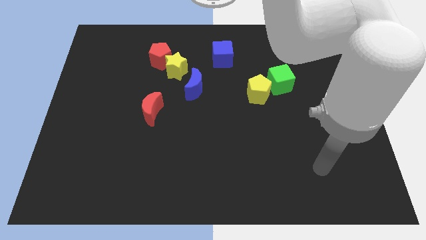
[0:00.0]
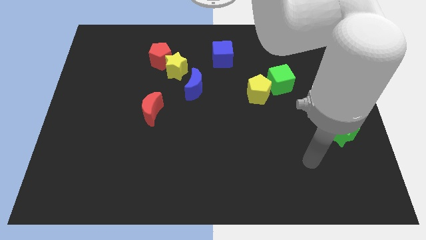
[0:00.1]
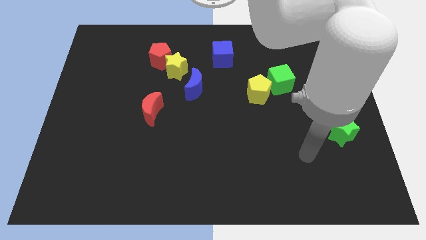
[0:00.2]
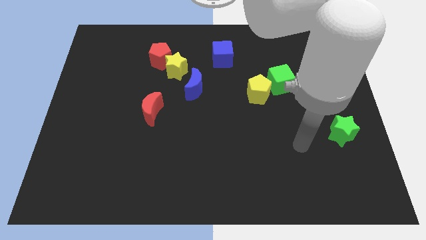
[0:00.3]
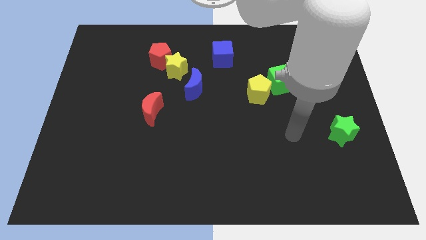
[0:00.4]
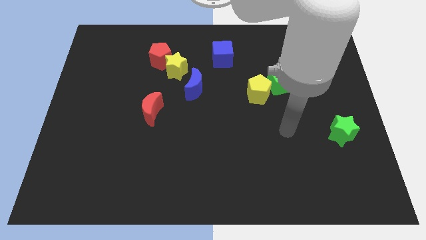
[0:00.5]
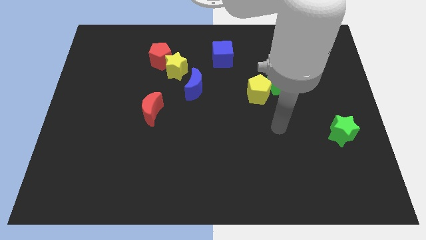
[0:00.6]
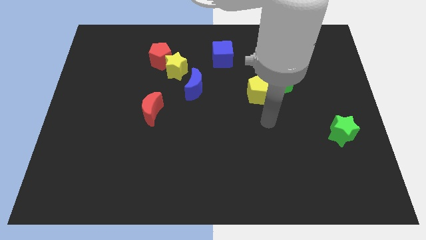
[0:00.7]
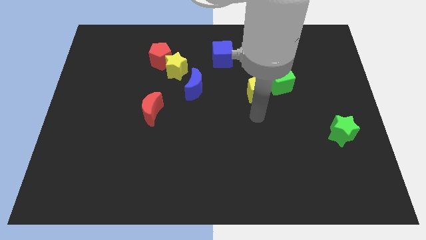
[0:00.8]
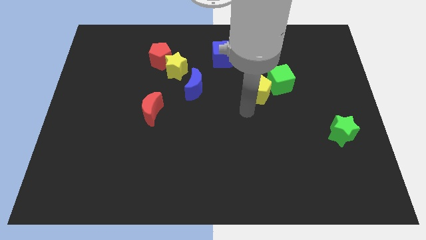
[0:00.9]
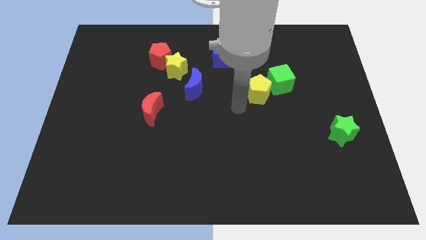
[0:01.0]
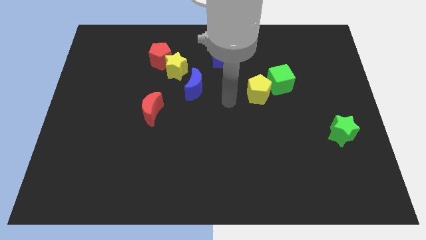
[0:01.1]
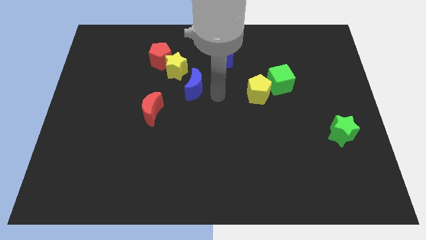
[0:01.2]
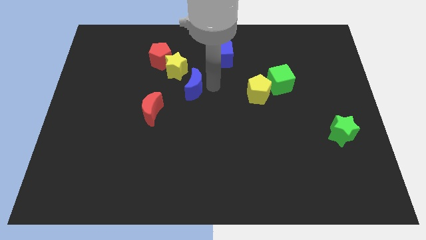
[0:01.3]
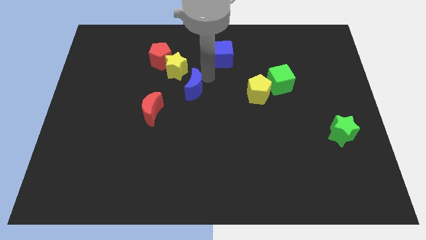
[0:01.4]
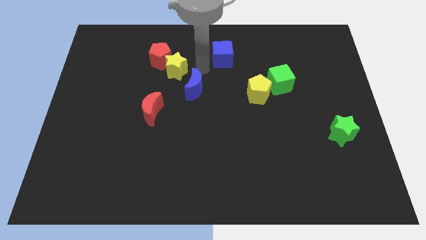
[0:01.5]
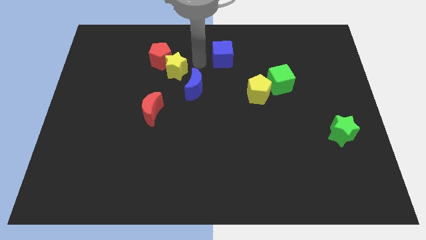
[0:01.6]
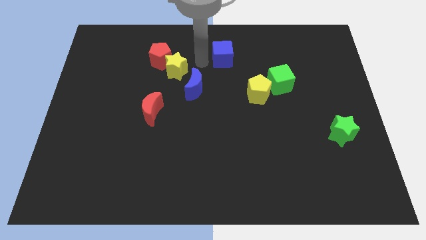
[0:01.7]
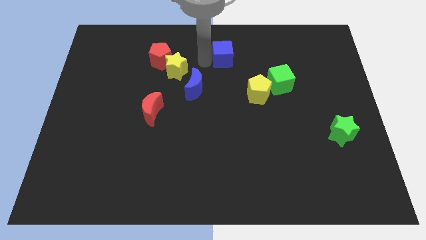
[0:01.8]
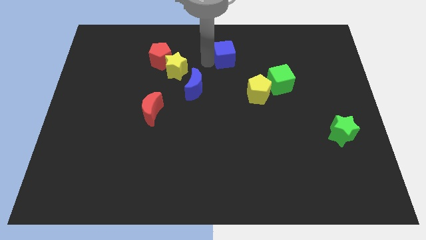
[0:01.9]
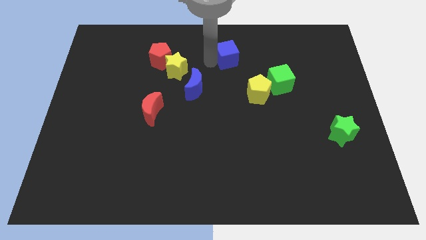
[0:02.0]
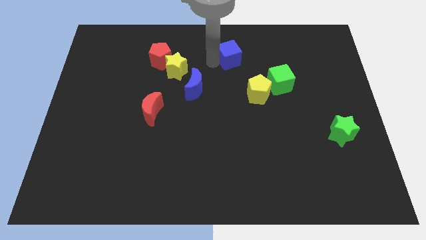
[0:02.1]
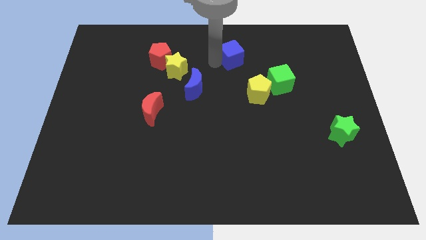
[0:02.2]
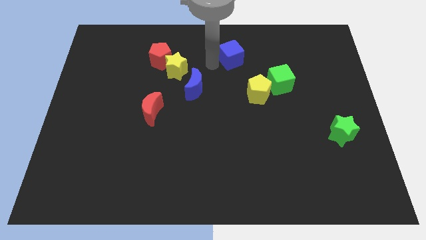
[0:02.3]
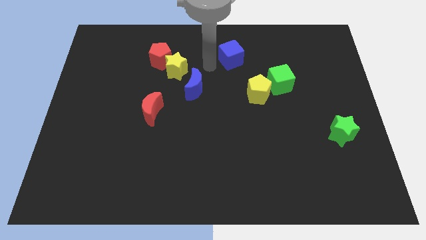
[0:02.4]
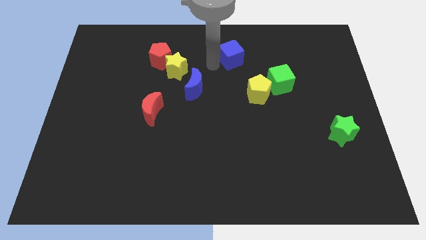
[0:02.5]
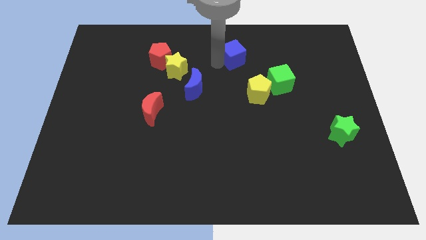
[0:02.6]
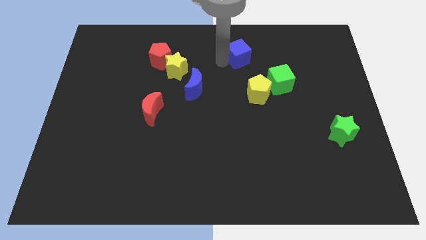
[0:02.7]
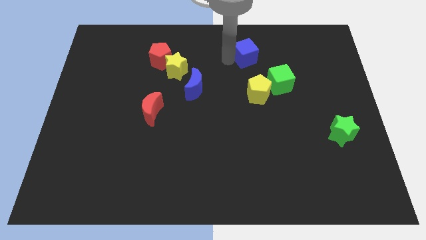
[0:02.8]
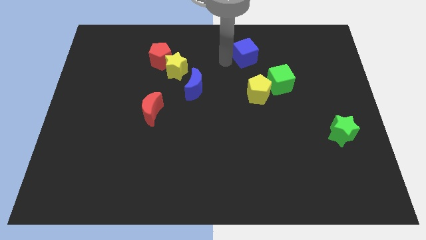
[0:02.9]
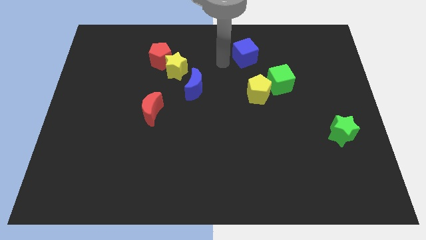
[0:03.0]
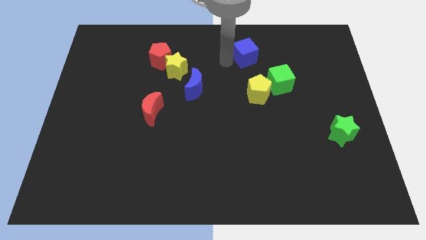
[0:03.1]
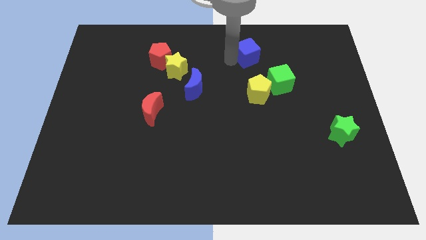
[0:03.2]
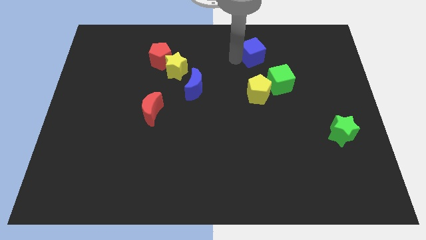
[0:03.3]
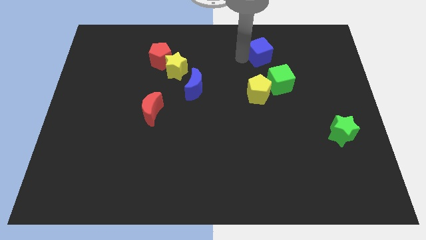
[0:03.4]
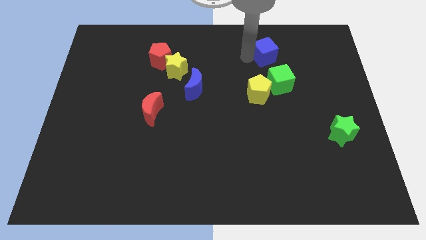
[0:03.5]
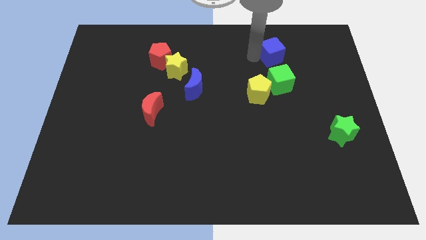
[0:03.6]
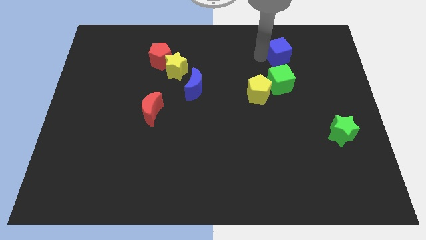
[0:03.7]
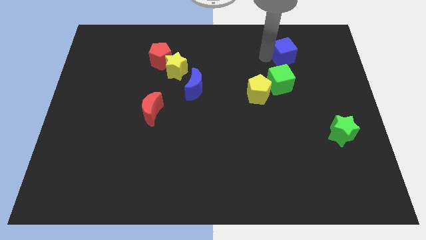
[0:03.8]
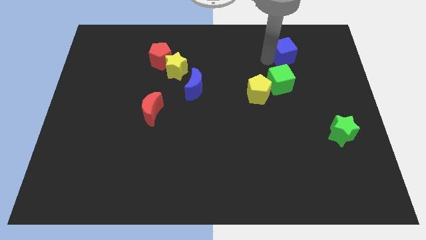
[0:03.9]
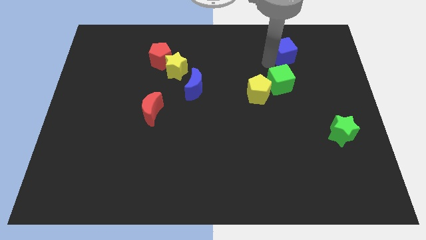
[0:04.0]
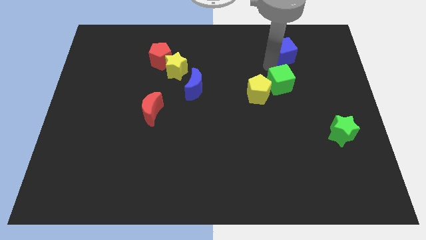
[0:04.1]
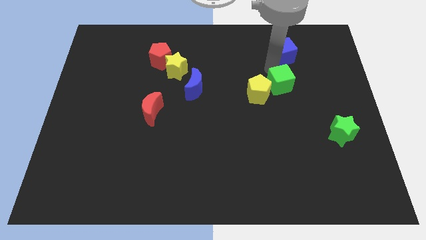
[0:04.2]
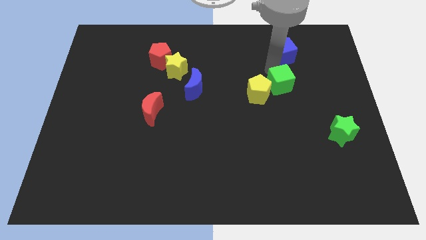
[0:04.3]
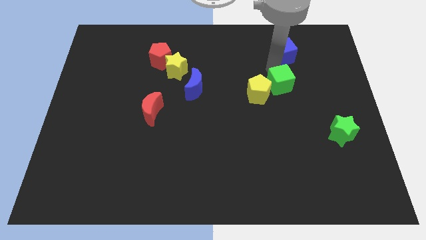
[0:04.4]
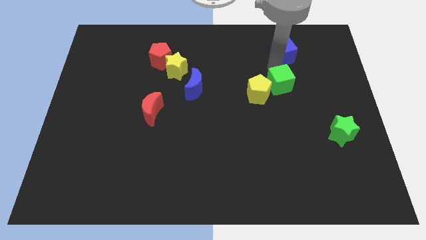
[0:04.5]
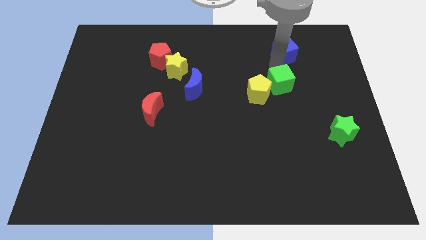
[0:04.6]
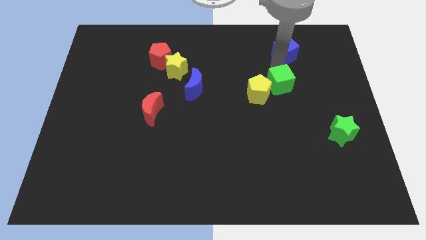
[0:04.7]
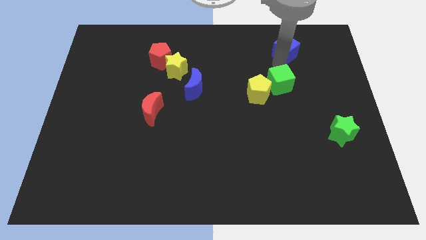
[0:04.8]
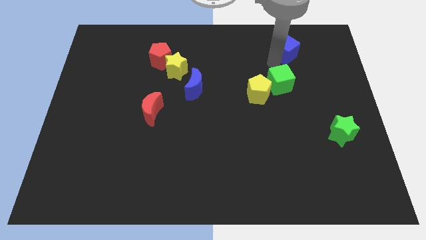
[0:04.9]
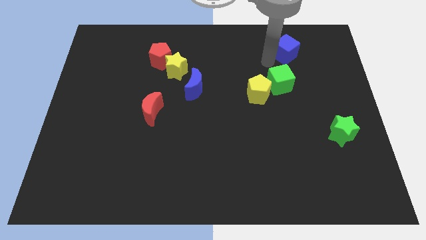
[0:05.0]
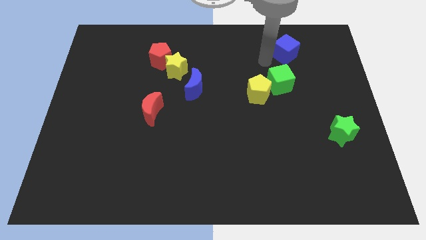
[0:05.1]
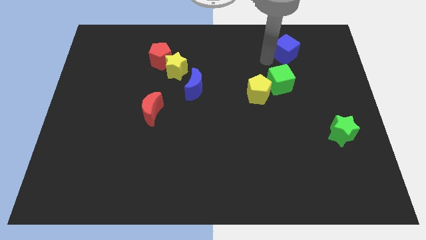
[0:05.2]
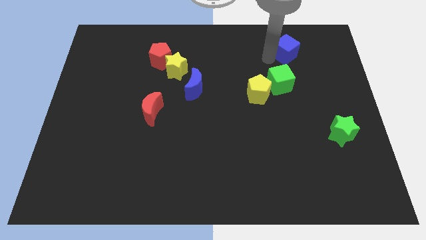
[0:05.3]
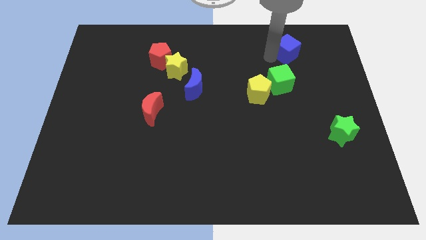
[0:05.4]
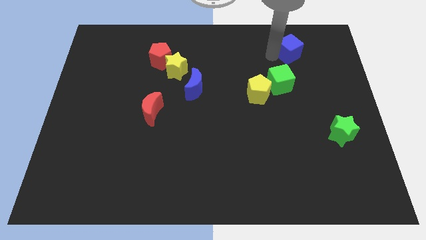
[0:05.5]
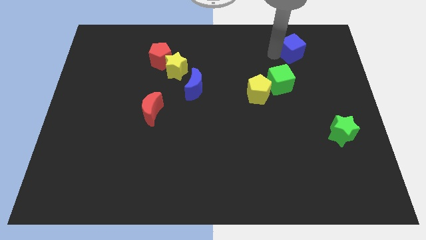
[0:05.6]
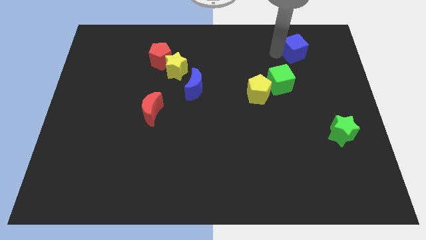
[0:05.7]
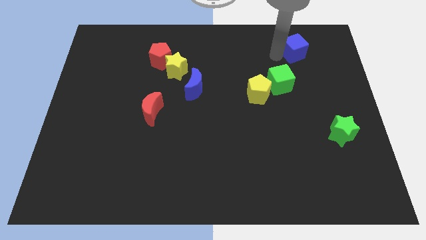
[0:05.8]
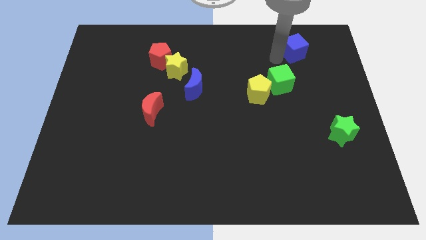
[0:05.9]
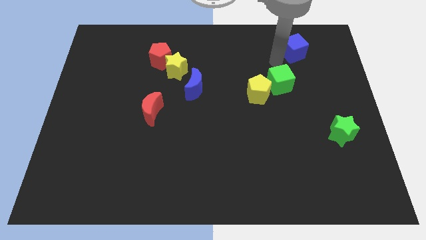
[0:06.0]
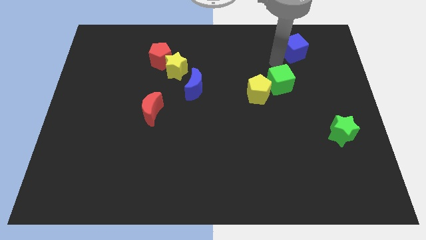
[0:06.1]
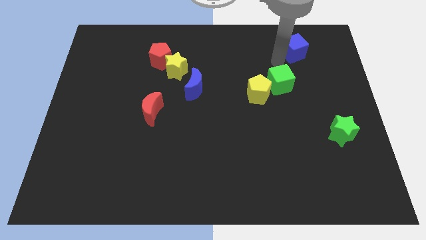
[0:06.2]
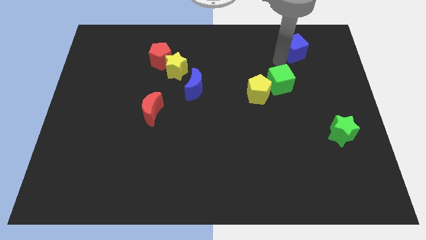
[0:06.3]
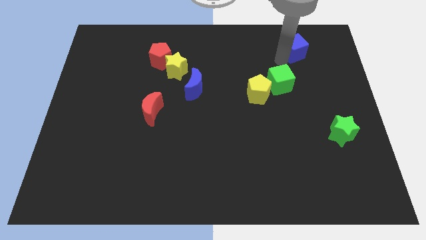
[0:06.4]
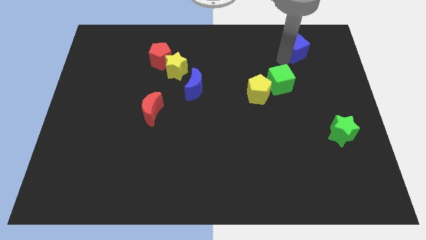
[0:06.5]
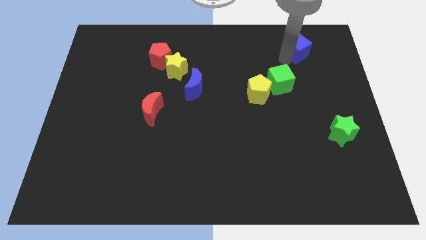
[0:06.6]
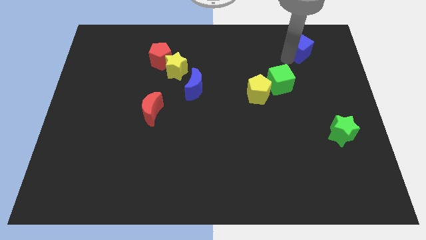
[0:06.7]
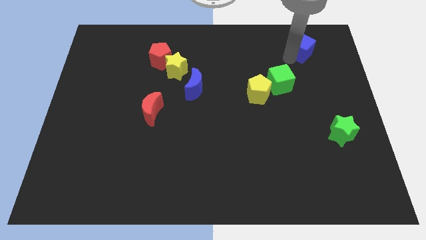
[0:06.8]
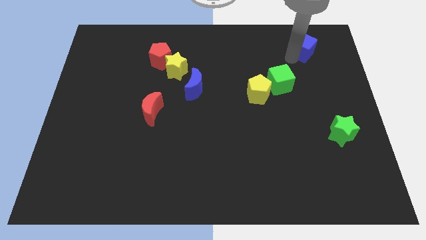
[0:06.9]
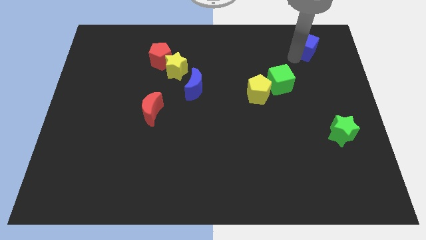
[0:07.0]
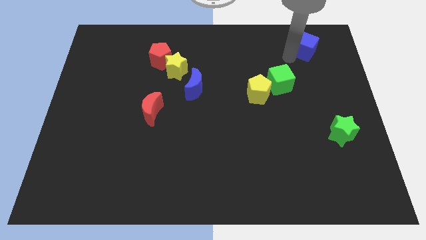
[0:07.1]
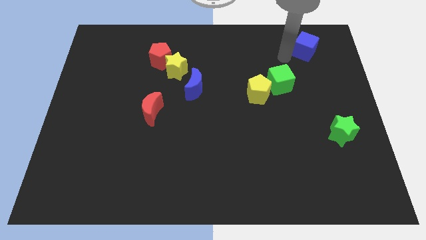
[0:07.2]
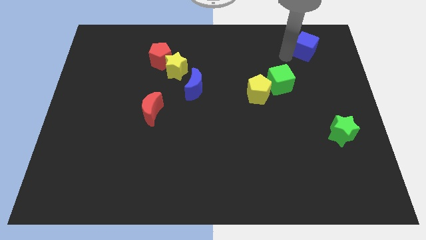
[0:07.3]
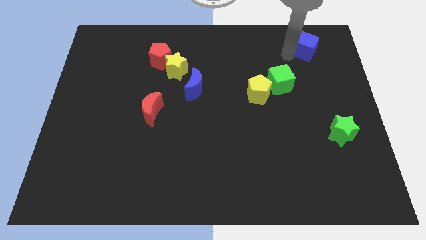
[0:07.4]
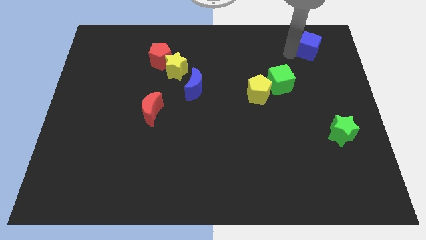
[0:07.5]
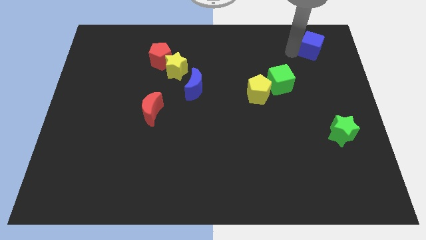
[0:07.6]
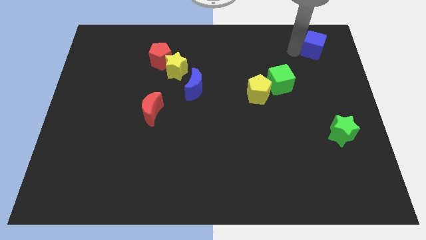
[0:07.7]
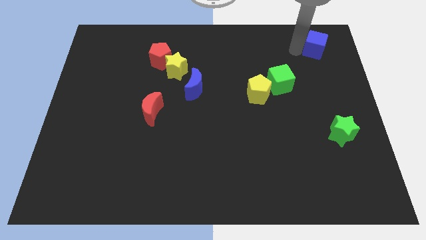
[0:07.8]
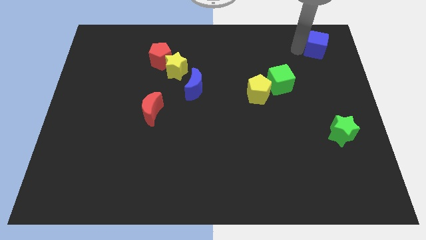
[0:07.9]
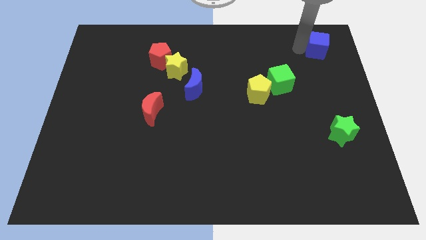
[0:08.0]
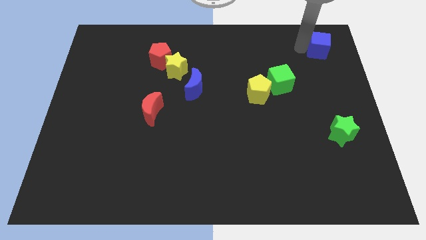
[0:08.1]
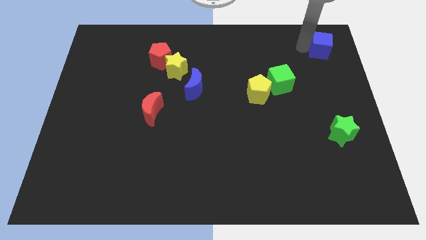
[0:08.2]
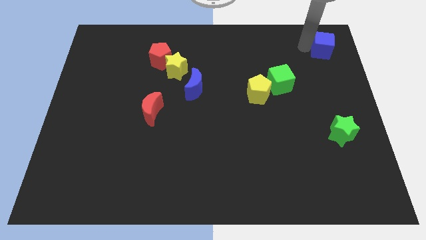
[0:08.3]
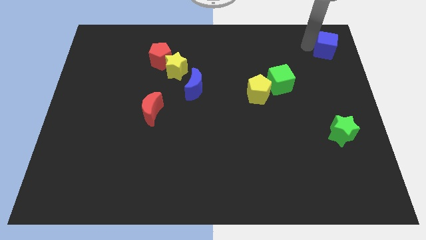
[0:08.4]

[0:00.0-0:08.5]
push the blue cube to the top right of the board
